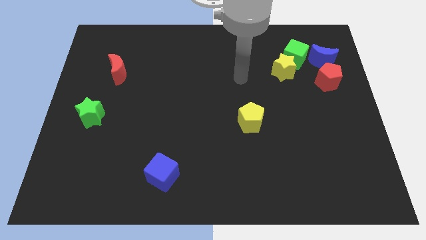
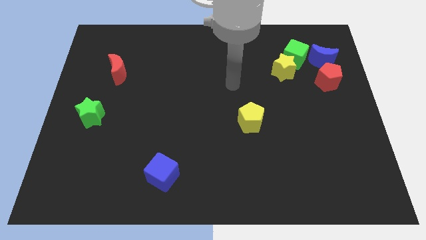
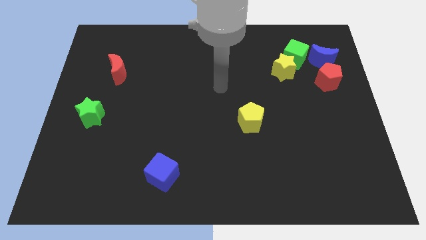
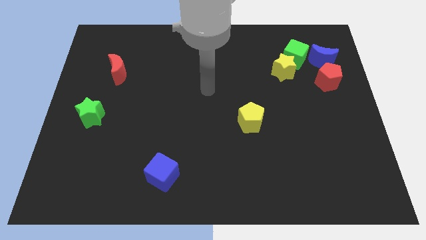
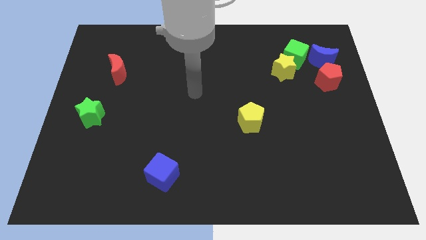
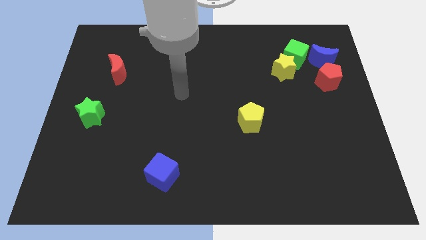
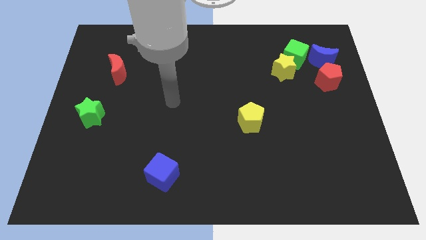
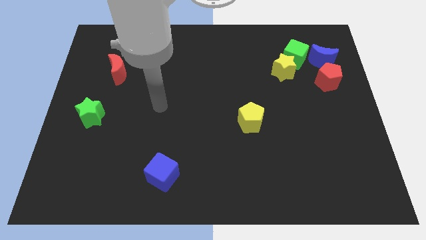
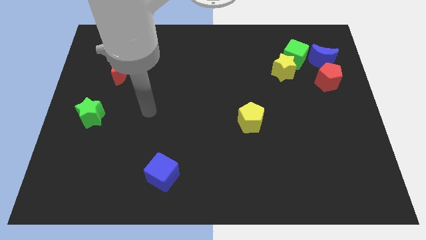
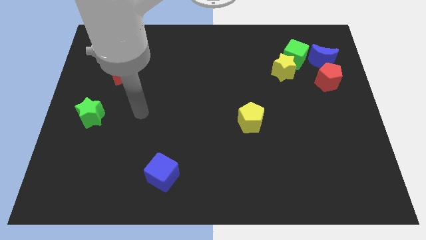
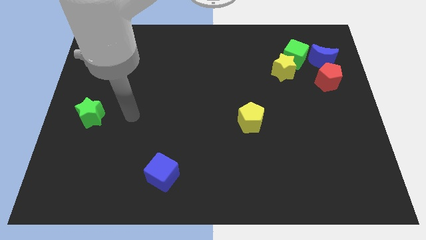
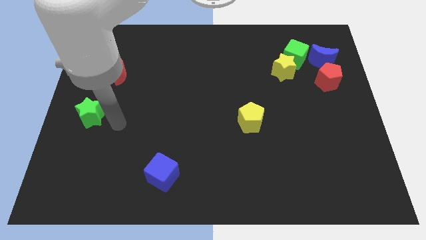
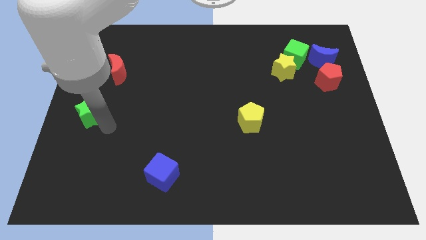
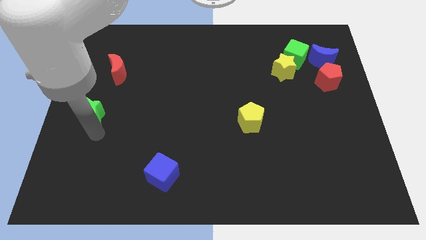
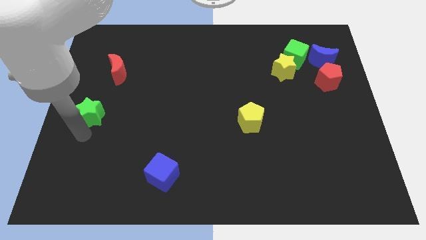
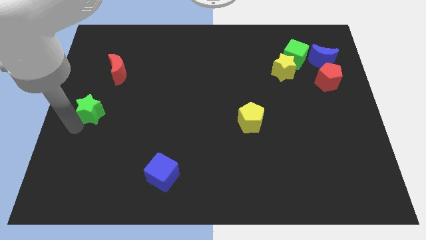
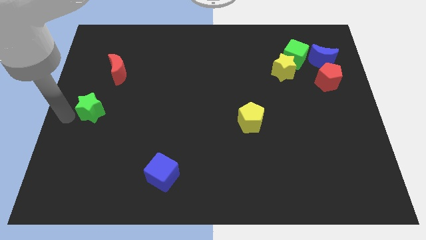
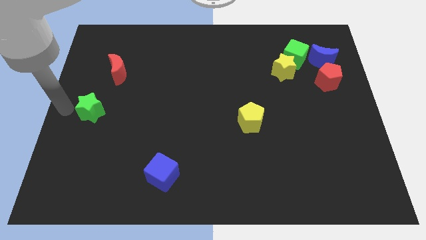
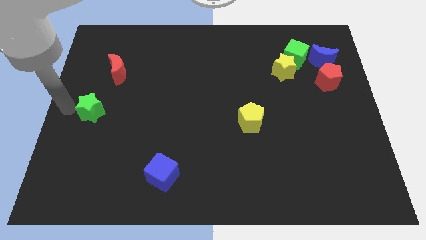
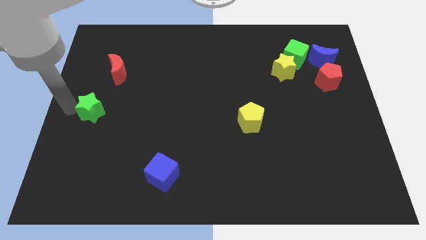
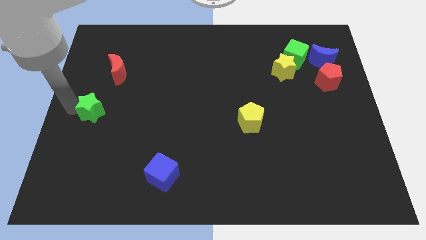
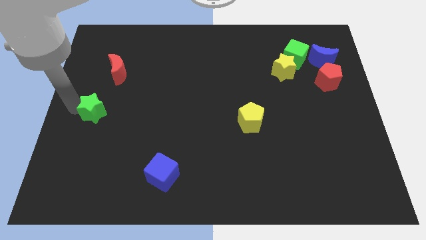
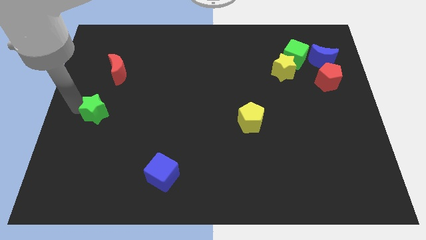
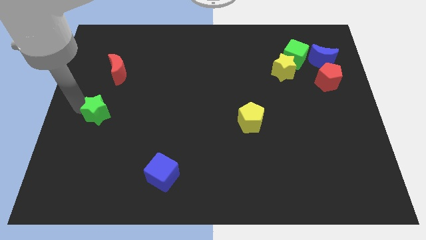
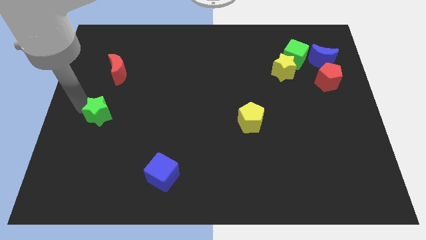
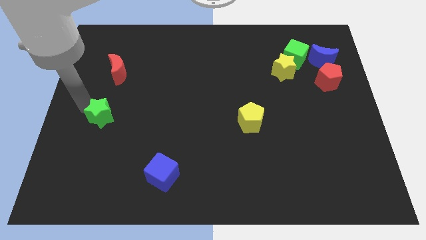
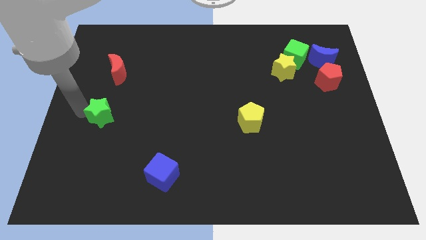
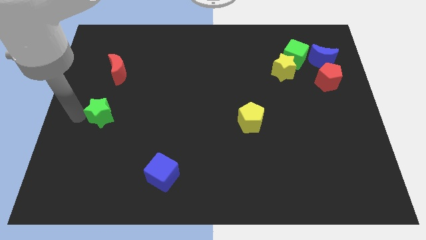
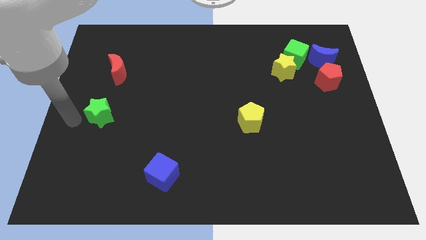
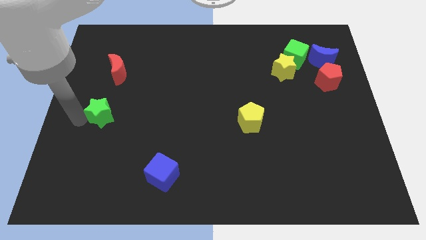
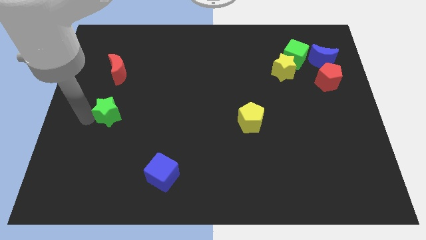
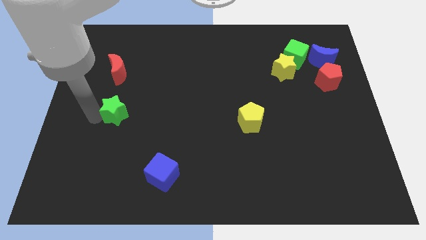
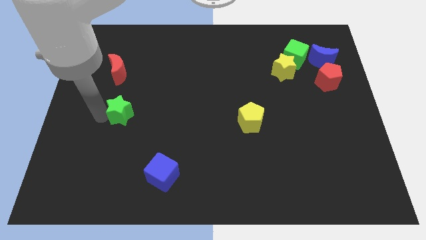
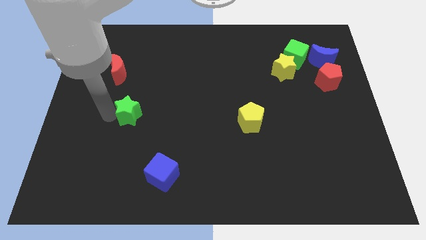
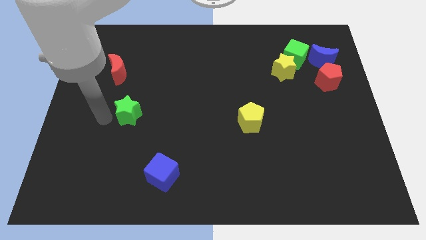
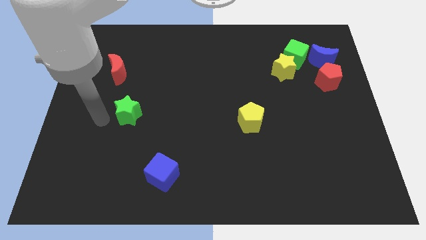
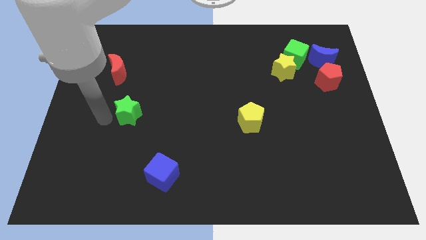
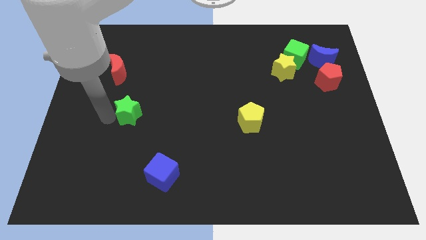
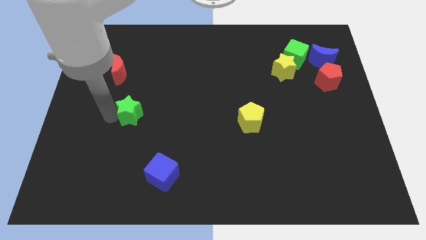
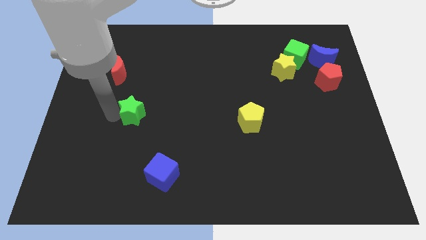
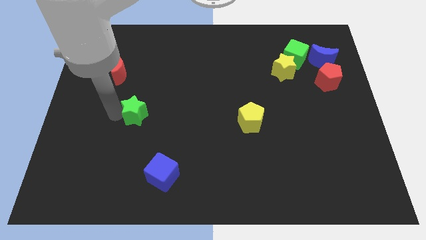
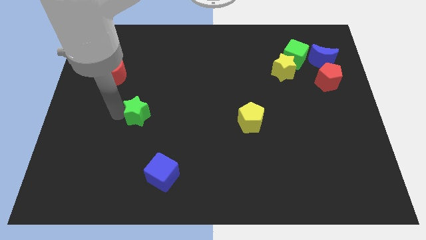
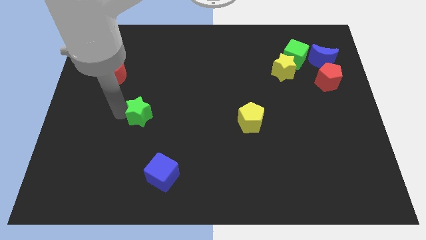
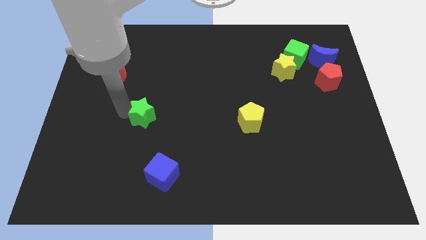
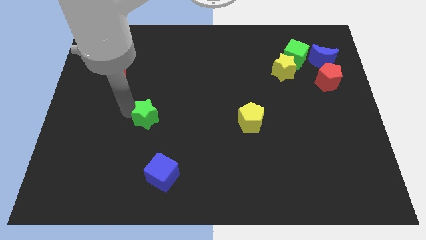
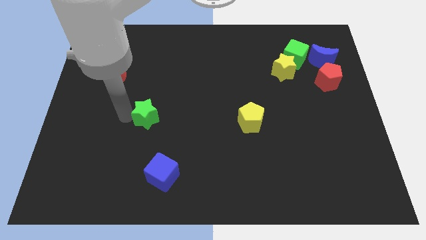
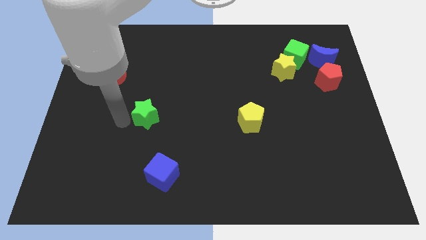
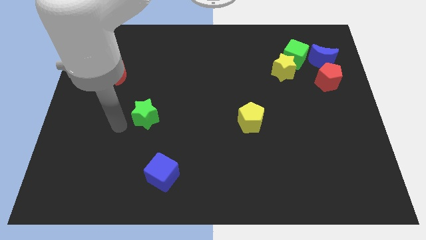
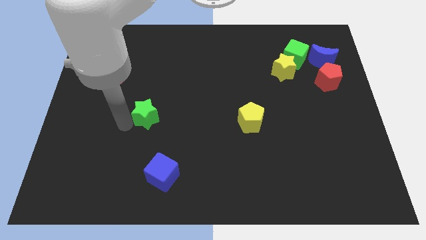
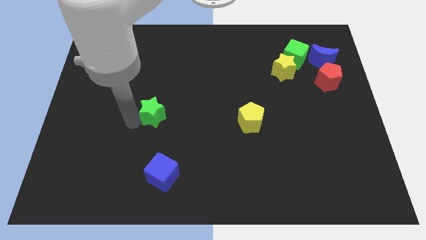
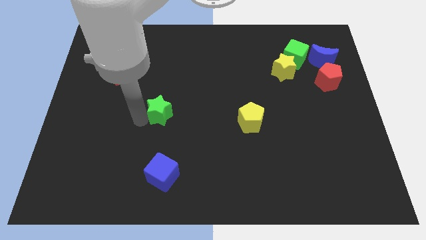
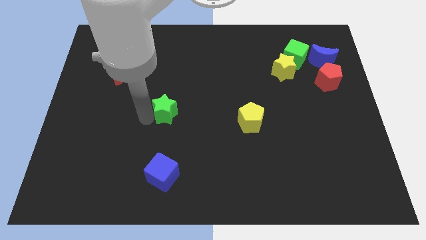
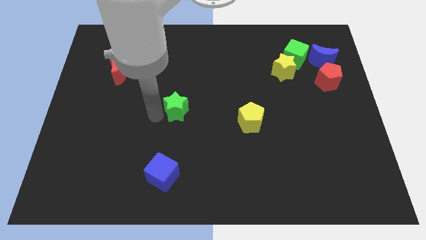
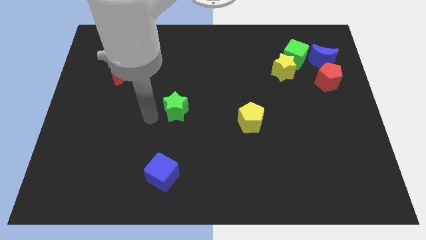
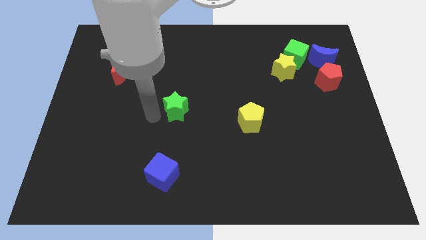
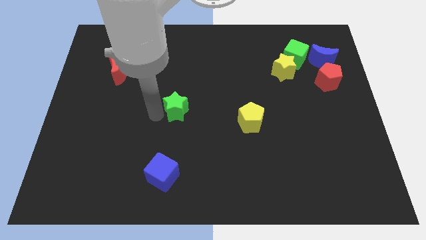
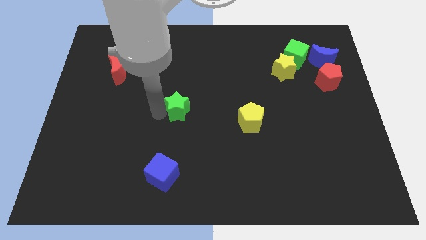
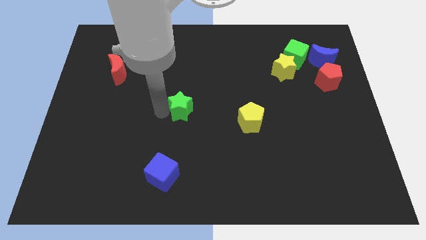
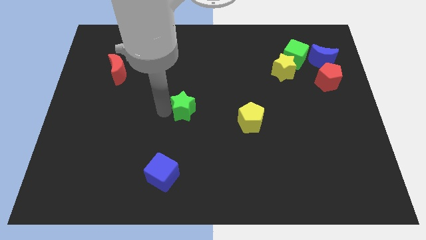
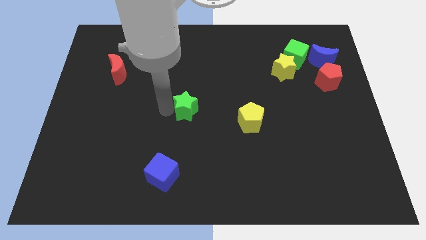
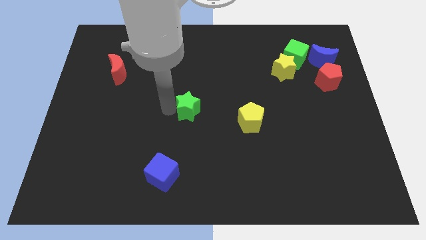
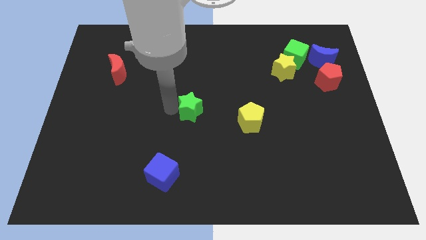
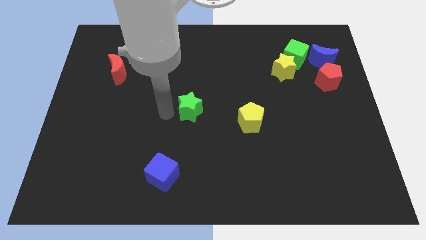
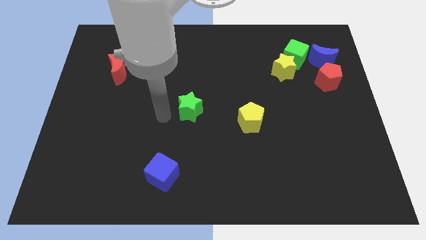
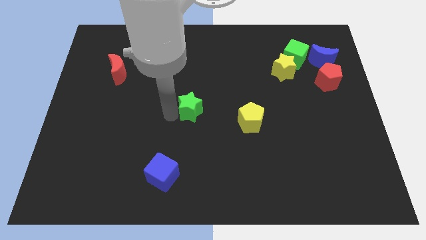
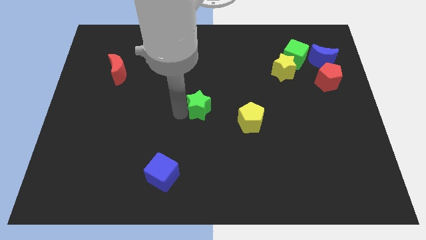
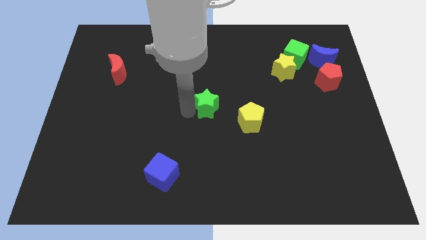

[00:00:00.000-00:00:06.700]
slide the green star to the top left of the yellow pentagon
